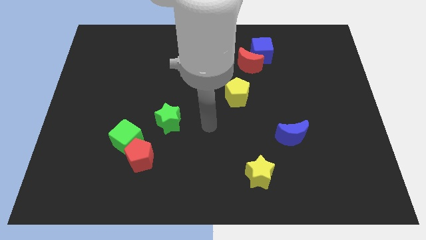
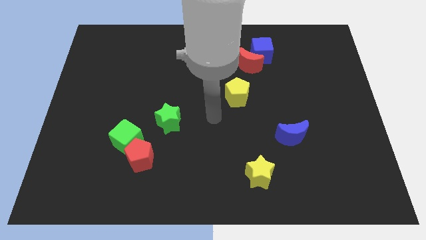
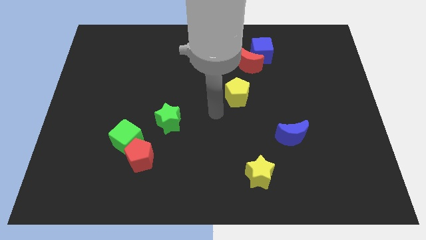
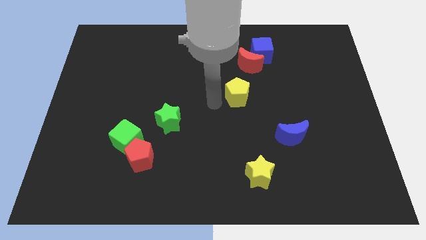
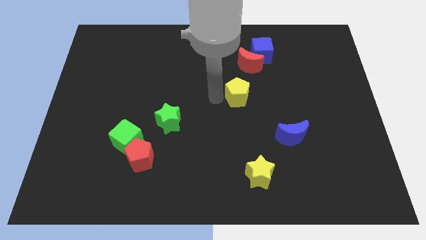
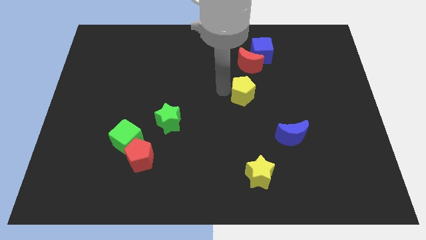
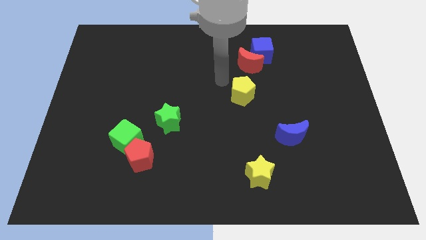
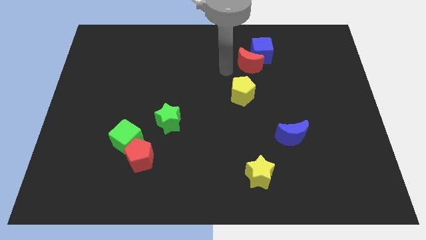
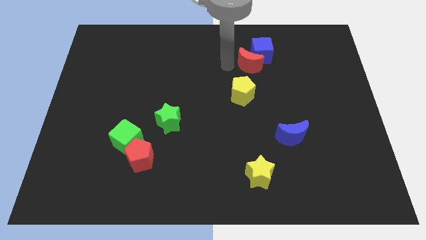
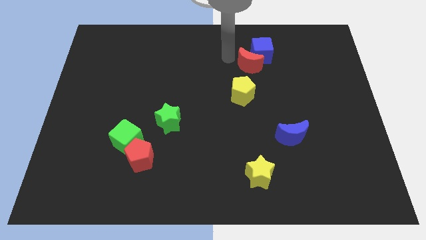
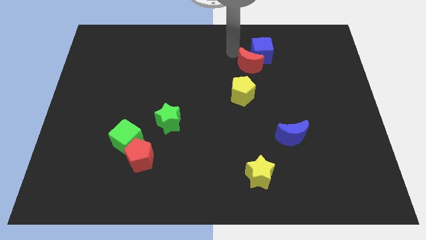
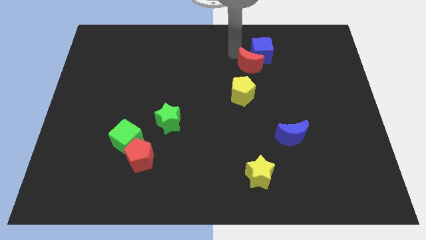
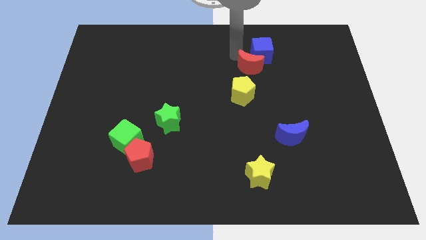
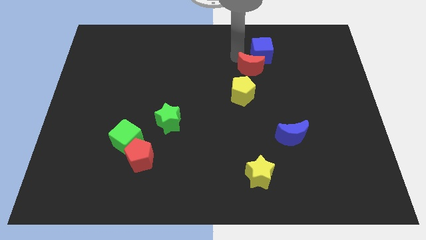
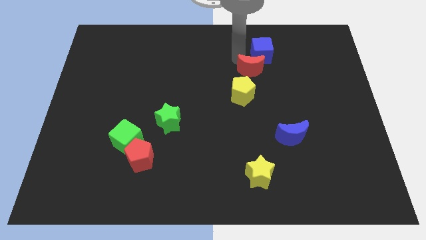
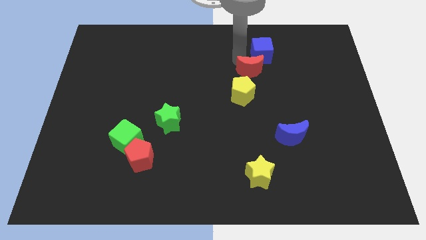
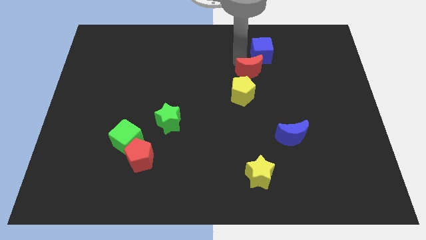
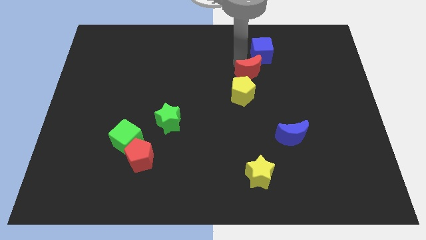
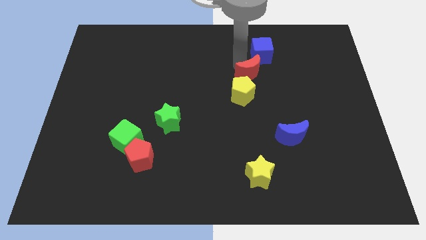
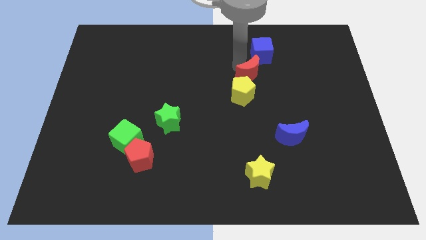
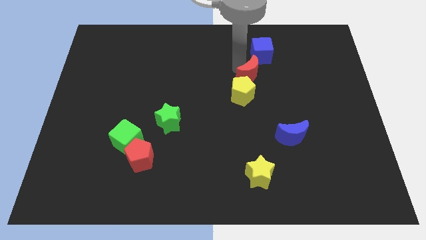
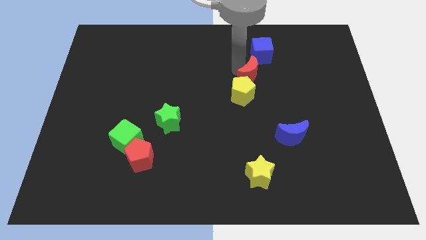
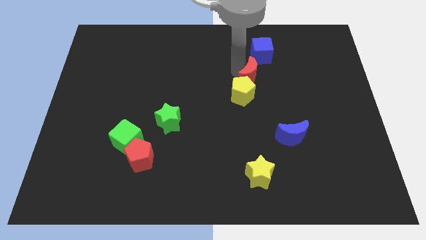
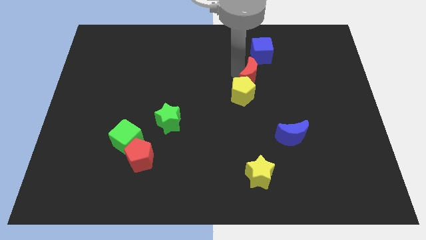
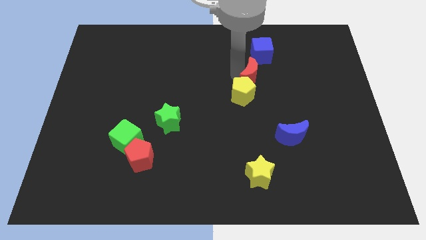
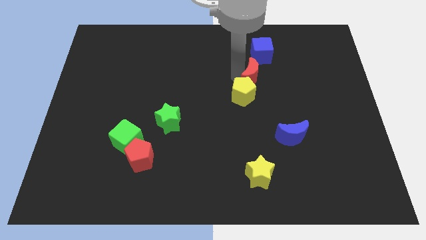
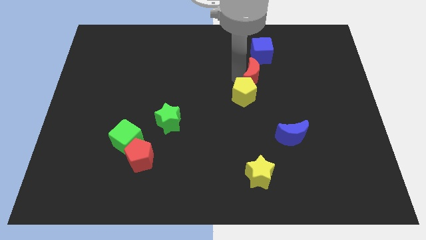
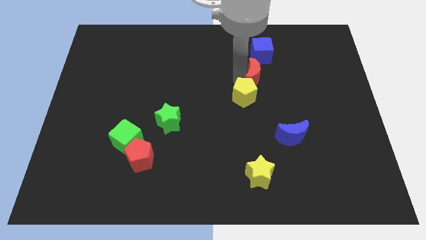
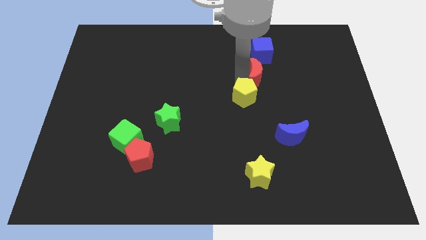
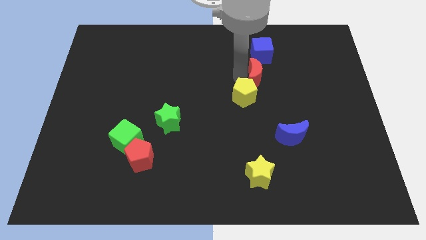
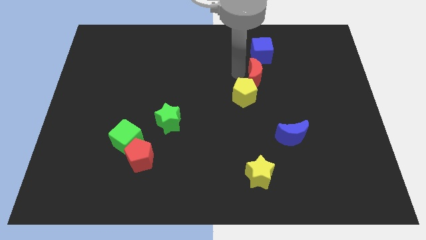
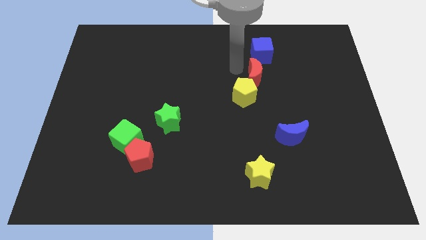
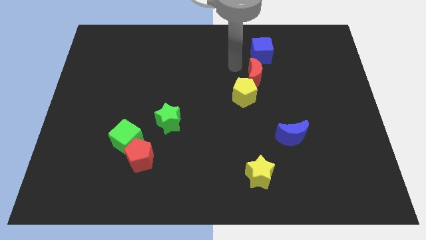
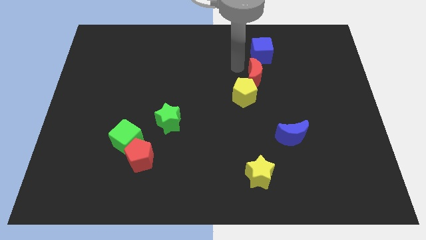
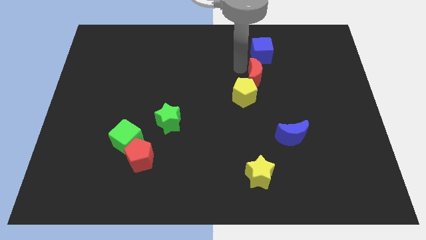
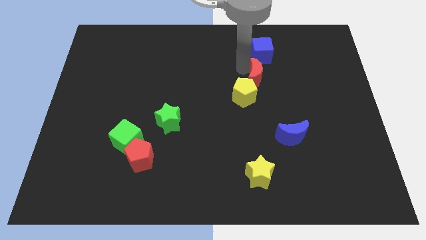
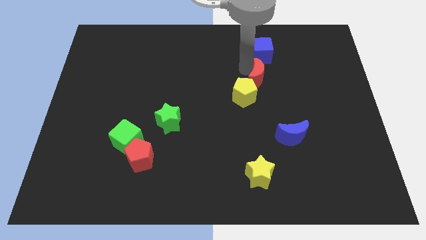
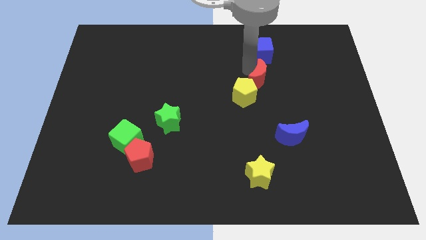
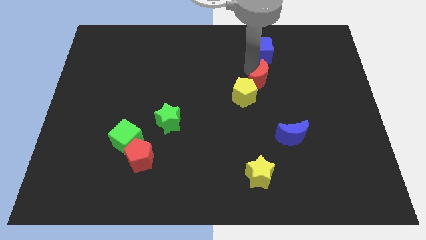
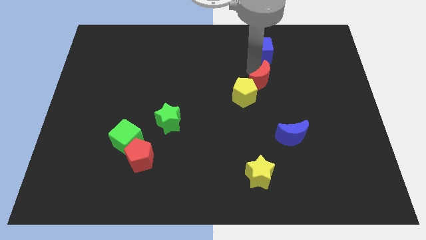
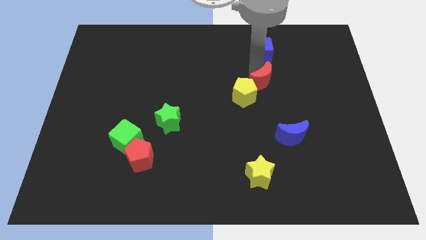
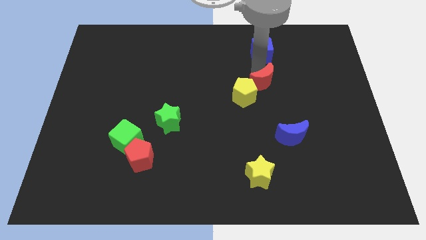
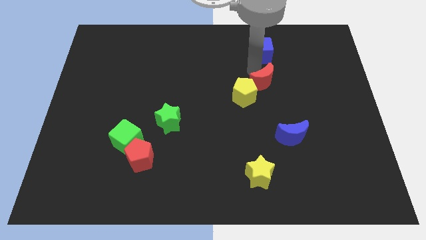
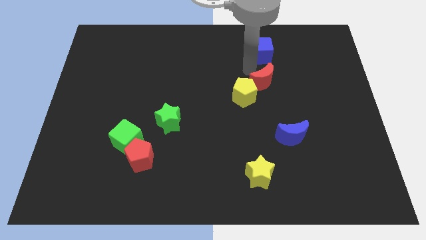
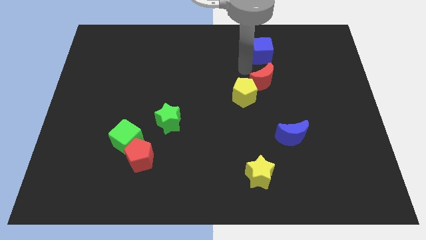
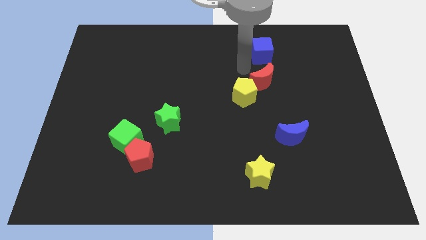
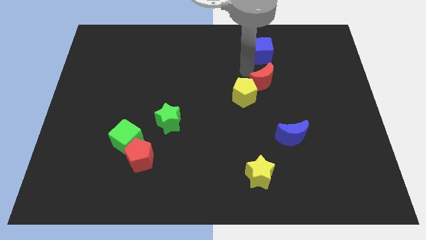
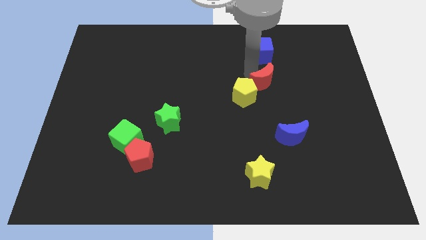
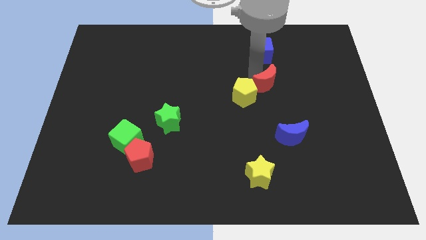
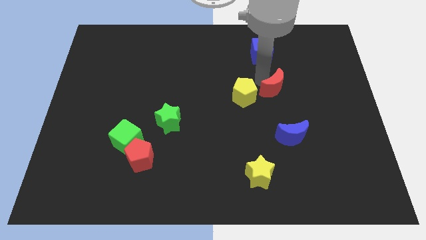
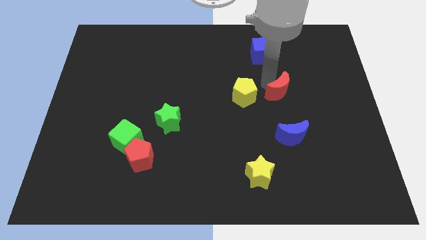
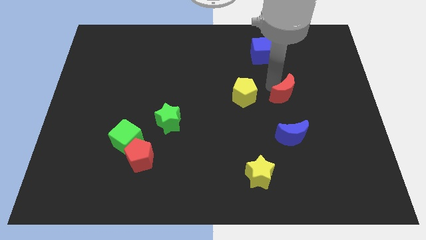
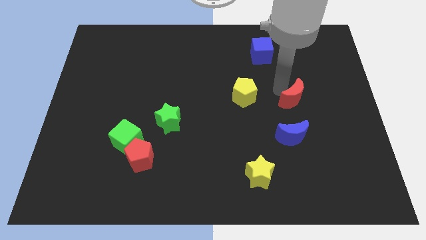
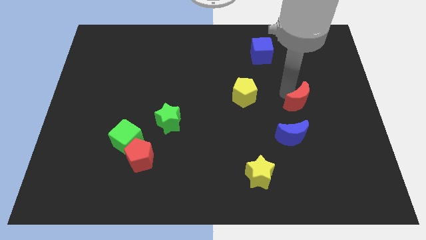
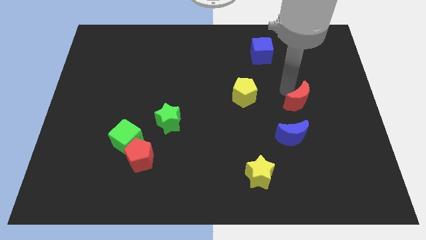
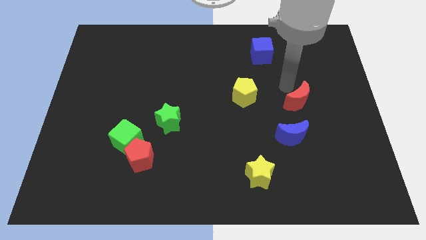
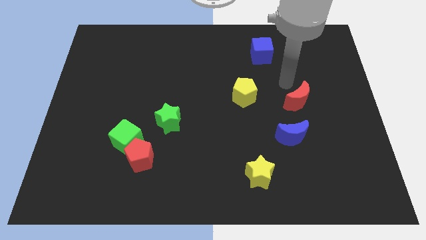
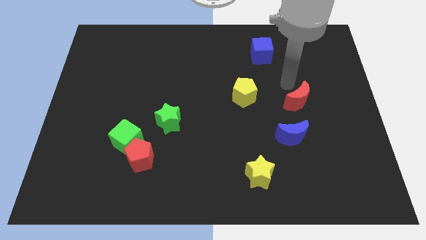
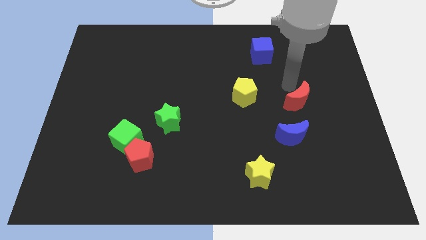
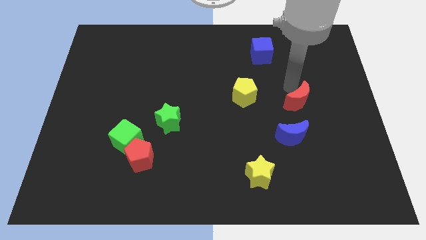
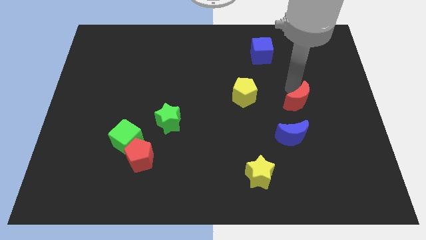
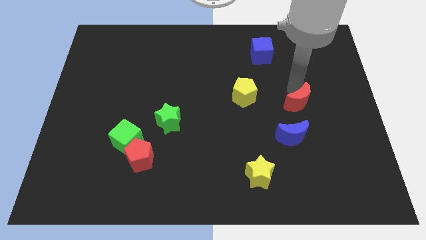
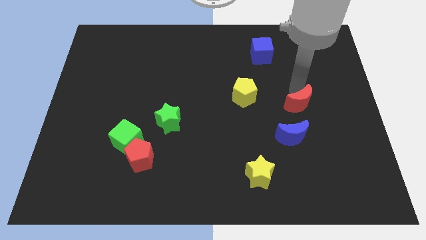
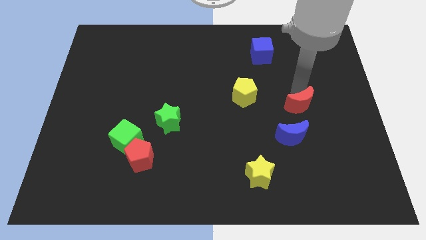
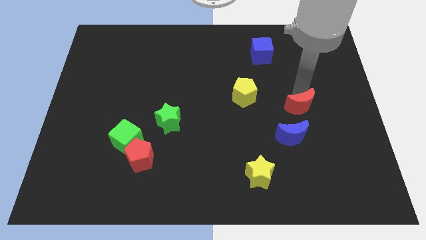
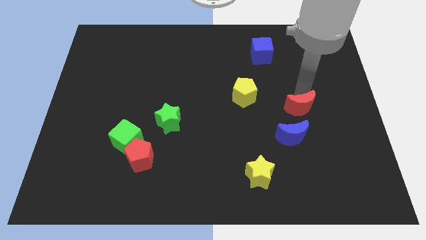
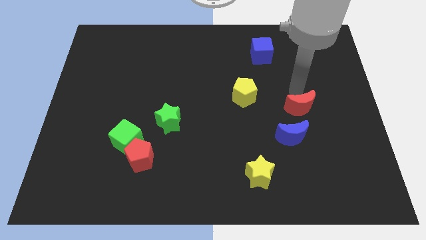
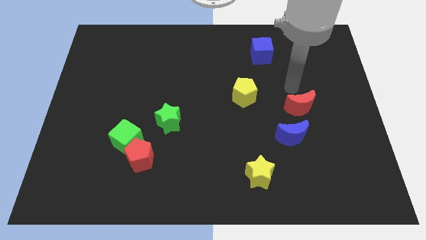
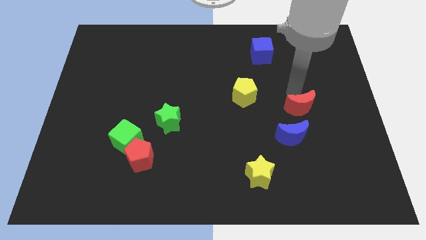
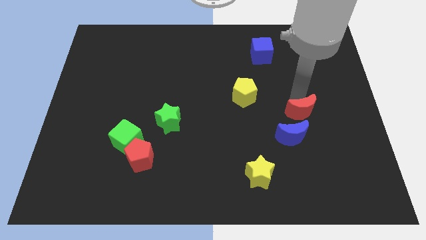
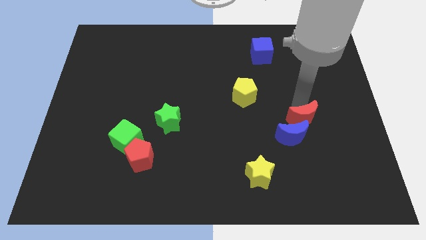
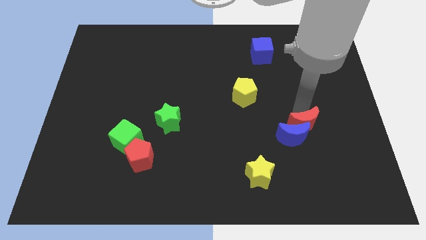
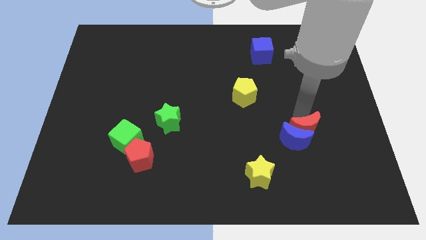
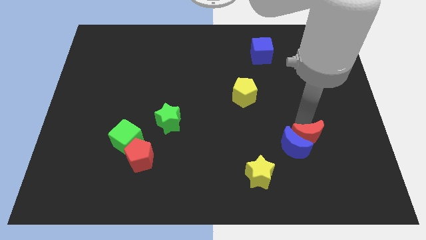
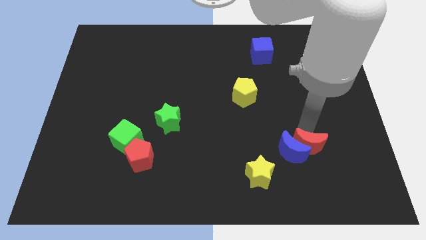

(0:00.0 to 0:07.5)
move the red moon diagonally down and to the right of the blue moon
